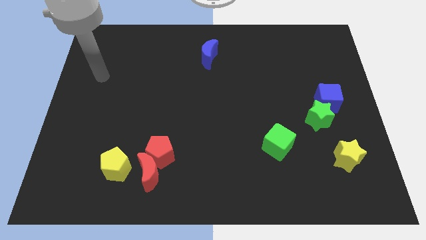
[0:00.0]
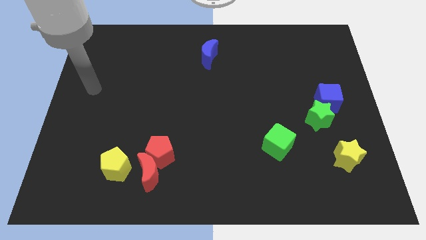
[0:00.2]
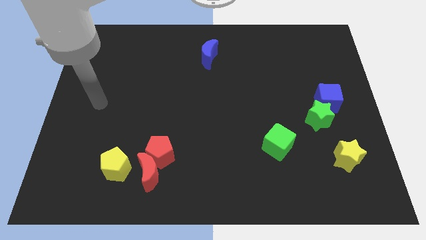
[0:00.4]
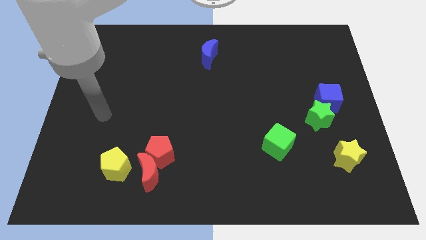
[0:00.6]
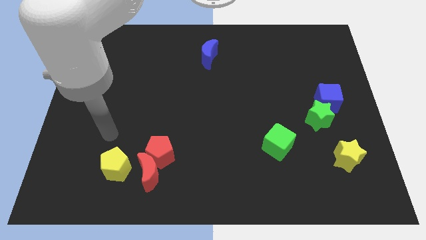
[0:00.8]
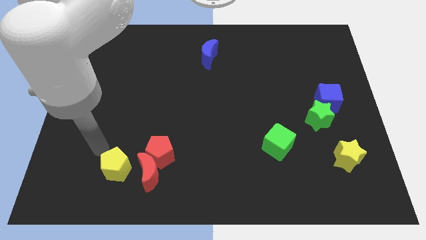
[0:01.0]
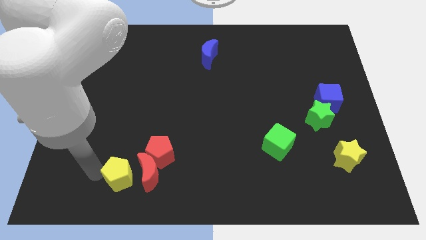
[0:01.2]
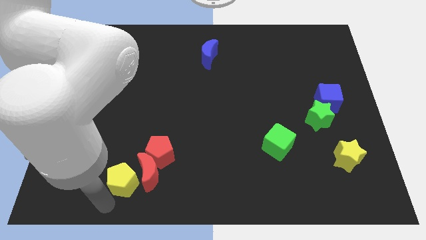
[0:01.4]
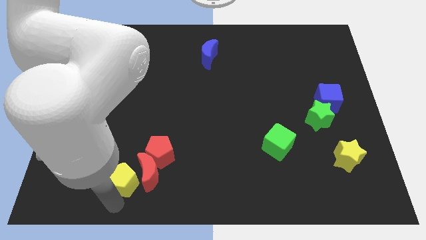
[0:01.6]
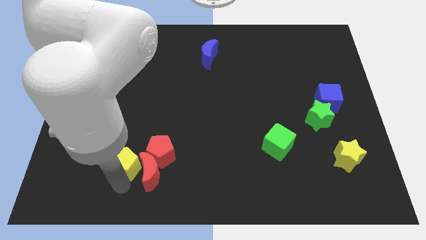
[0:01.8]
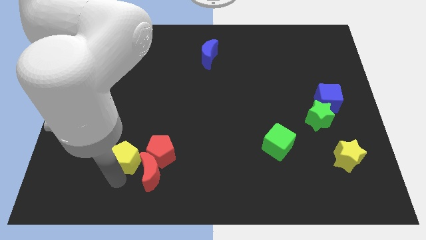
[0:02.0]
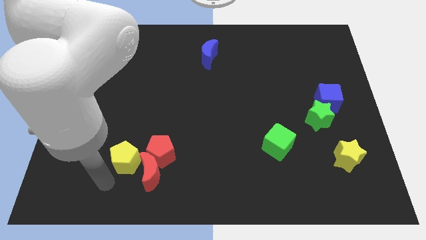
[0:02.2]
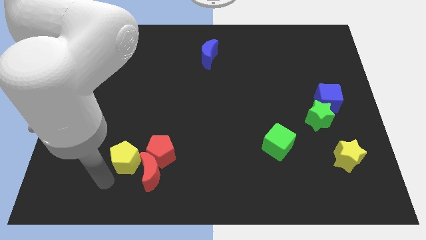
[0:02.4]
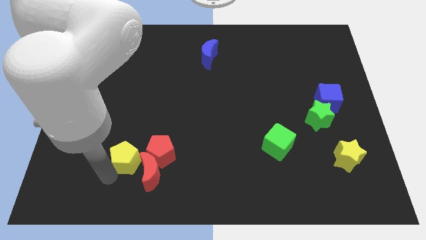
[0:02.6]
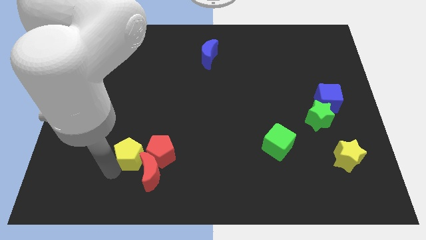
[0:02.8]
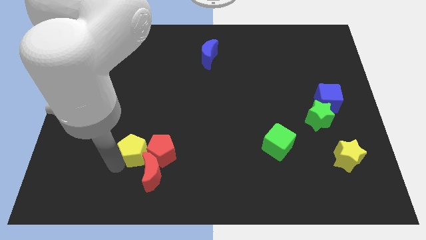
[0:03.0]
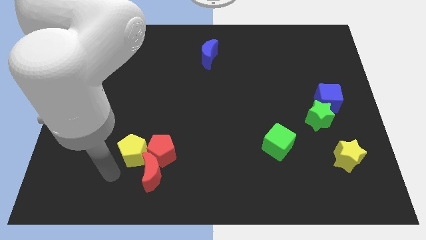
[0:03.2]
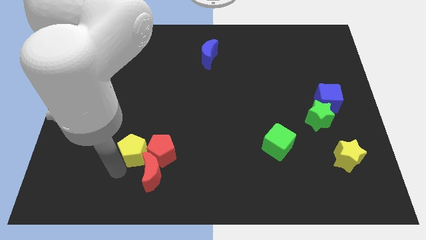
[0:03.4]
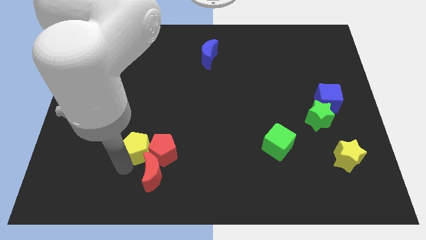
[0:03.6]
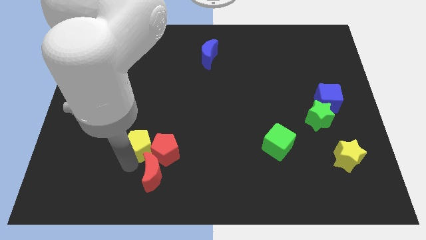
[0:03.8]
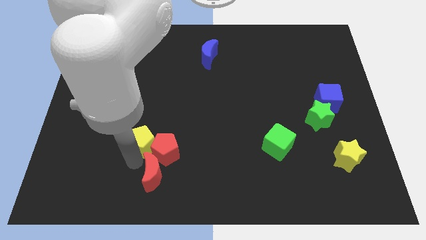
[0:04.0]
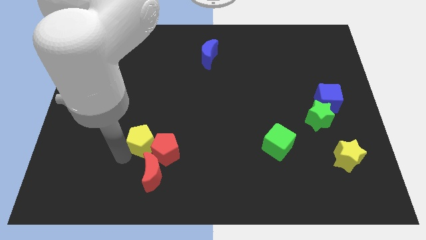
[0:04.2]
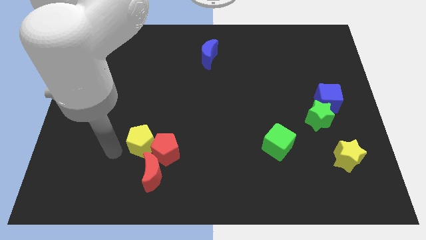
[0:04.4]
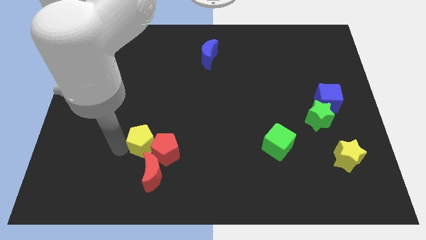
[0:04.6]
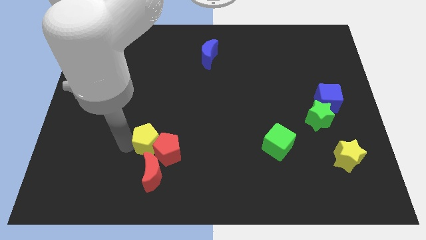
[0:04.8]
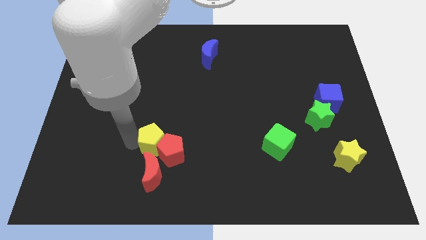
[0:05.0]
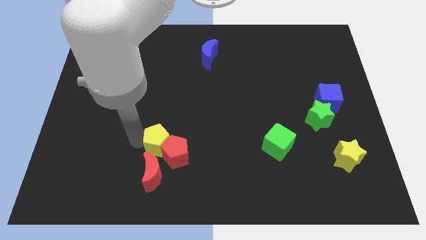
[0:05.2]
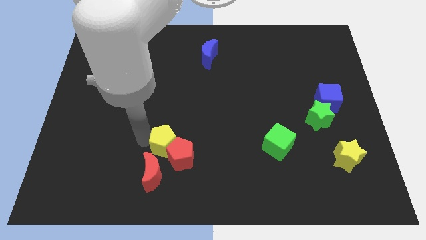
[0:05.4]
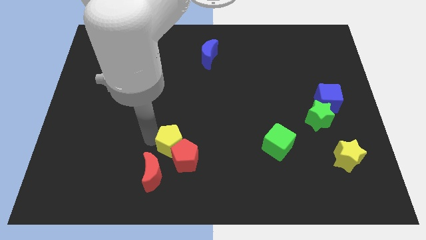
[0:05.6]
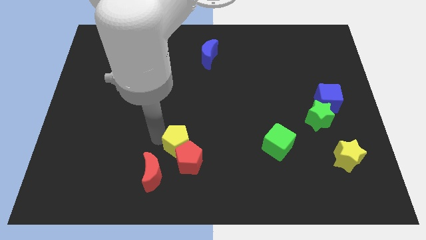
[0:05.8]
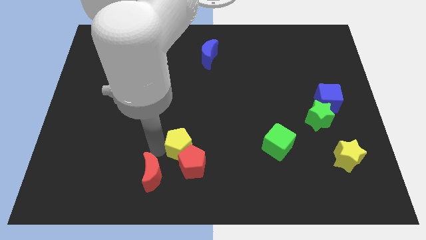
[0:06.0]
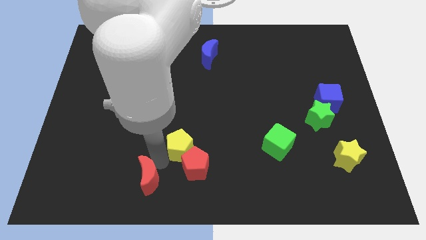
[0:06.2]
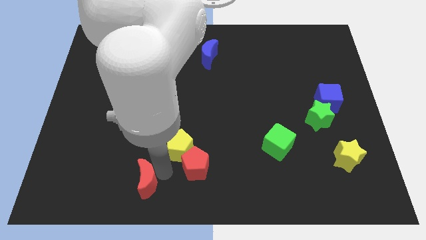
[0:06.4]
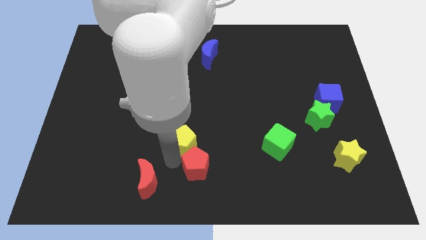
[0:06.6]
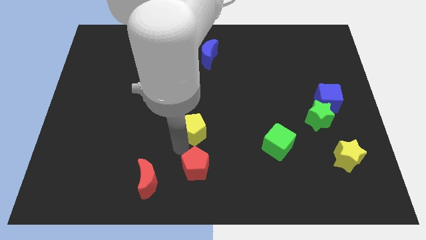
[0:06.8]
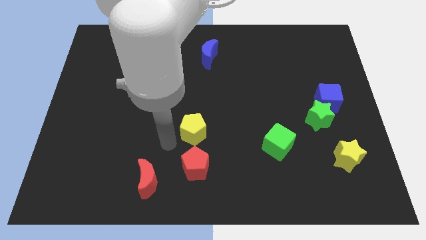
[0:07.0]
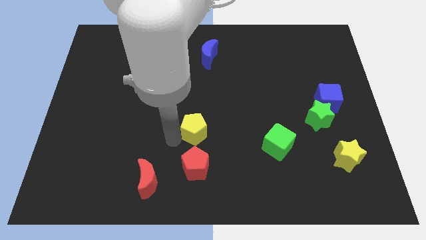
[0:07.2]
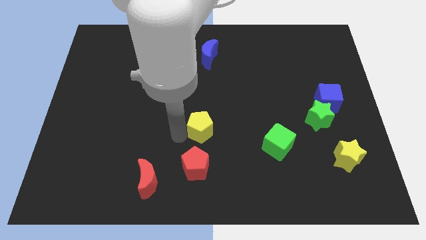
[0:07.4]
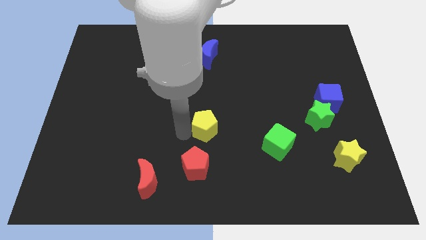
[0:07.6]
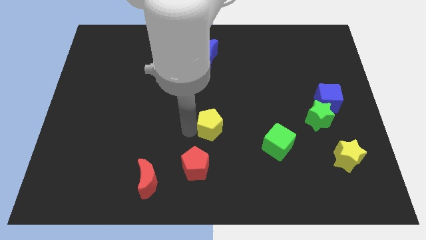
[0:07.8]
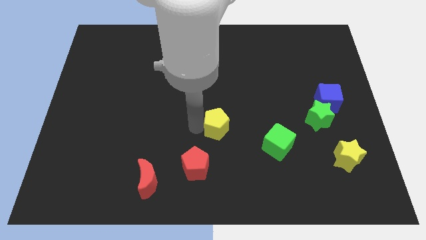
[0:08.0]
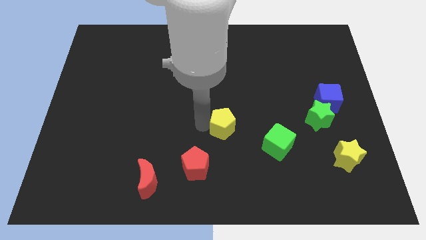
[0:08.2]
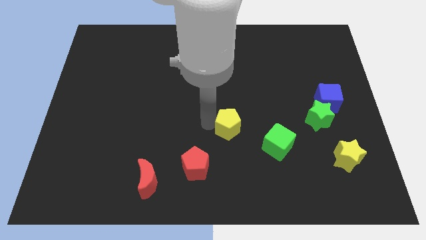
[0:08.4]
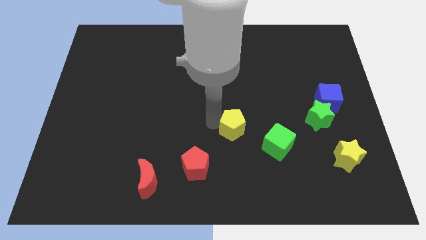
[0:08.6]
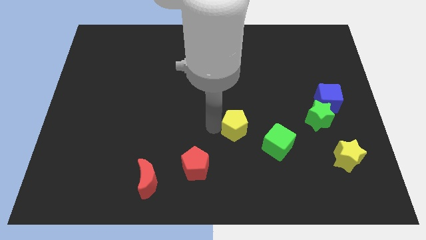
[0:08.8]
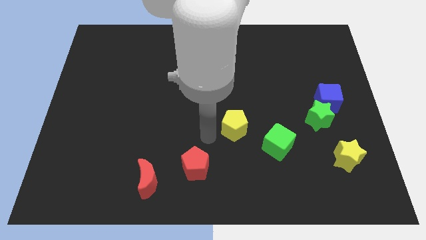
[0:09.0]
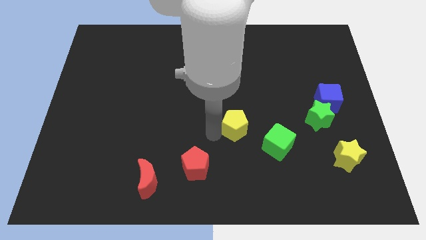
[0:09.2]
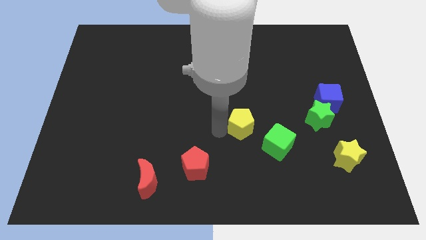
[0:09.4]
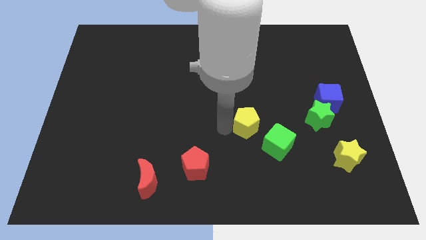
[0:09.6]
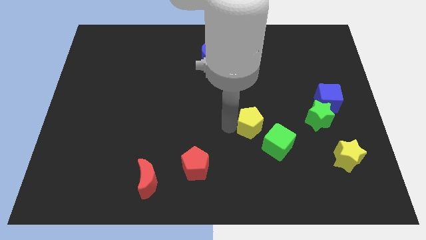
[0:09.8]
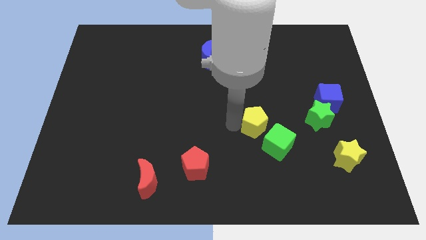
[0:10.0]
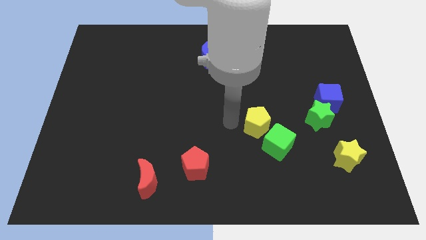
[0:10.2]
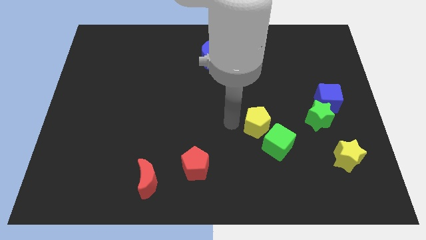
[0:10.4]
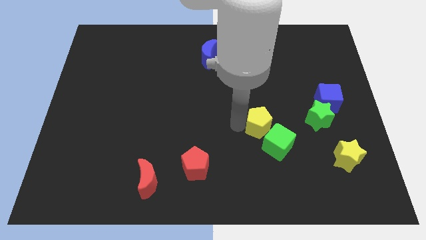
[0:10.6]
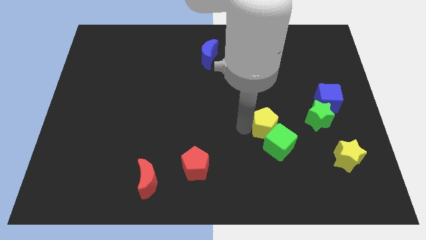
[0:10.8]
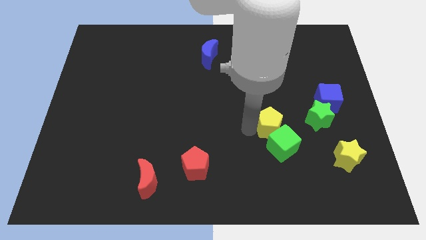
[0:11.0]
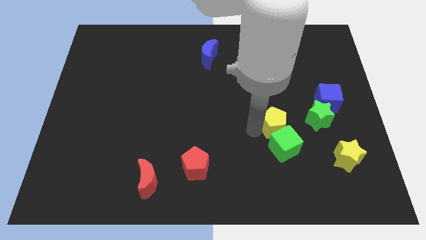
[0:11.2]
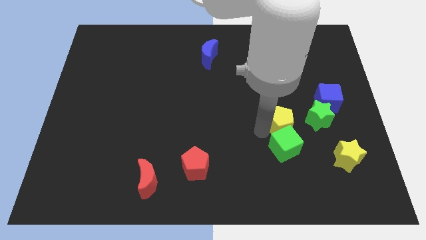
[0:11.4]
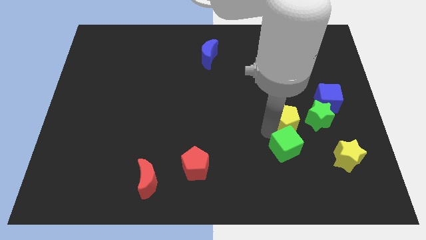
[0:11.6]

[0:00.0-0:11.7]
put the yellow pentagon to the bottom left of the blue cube
